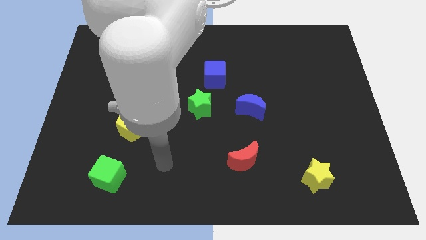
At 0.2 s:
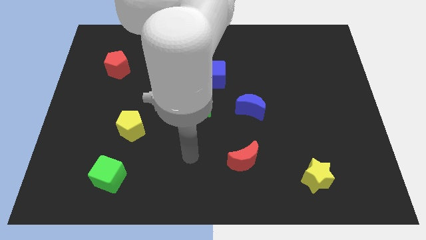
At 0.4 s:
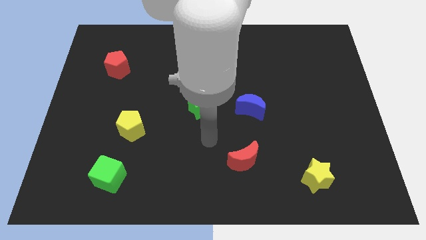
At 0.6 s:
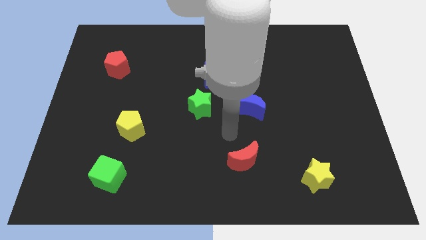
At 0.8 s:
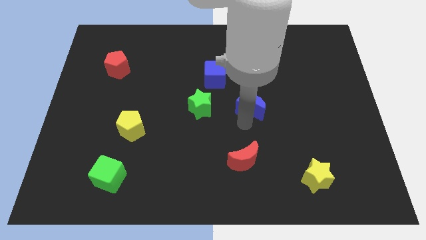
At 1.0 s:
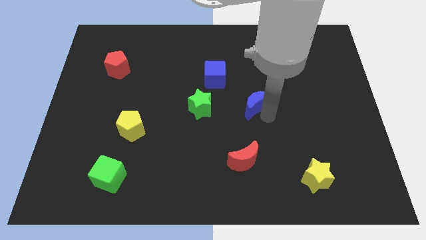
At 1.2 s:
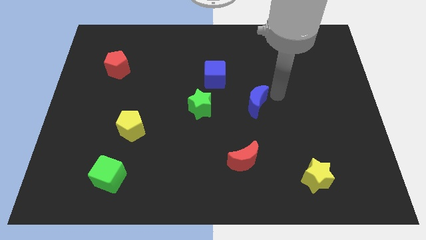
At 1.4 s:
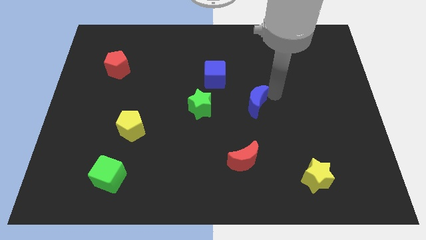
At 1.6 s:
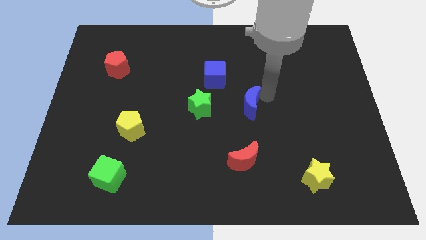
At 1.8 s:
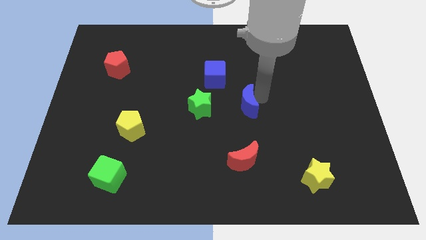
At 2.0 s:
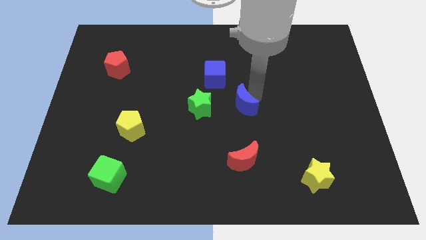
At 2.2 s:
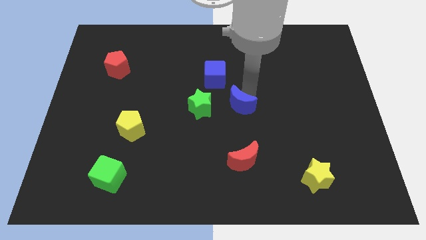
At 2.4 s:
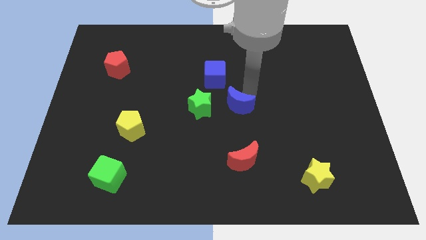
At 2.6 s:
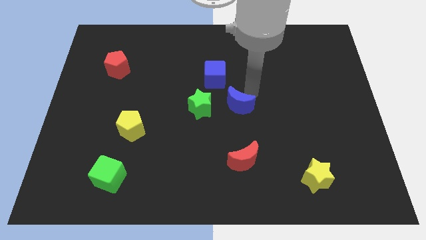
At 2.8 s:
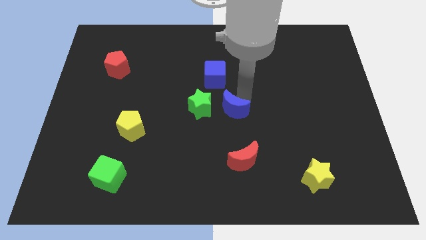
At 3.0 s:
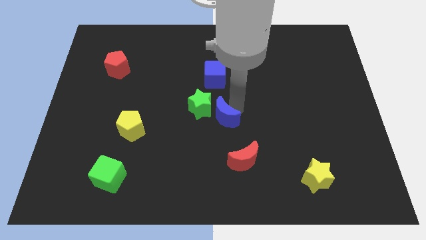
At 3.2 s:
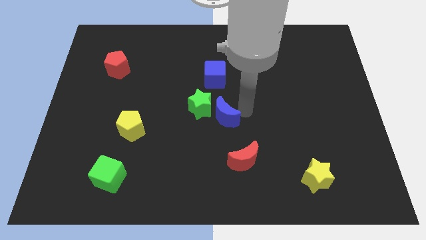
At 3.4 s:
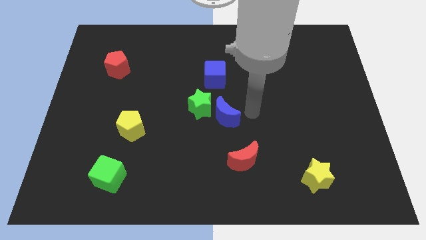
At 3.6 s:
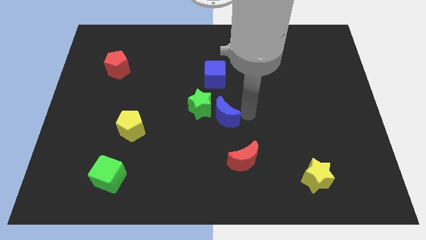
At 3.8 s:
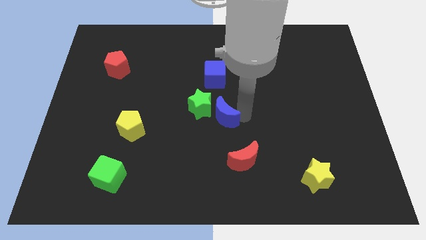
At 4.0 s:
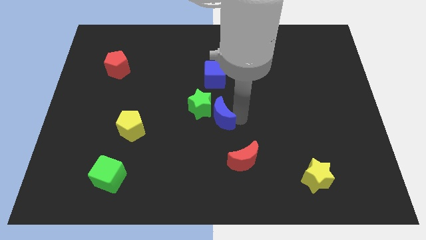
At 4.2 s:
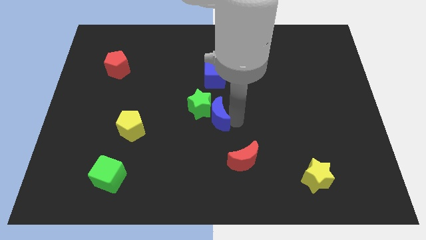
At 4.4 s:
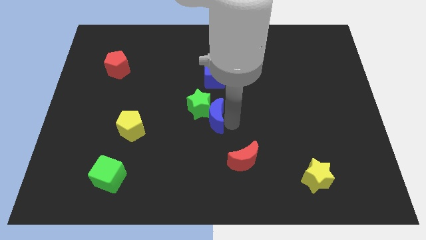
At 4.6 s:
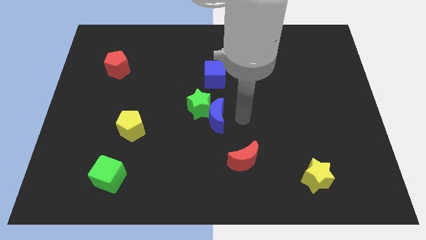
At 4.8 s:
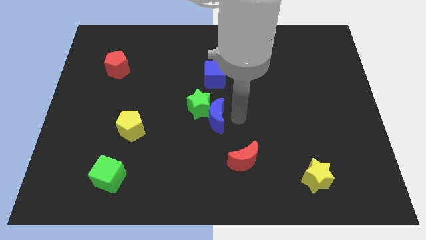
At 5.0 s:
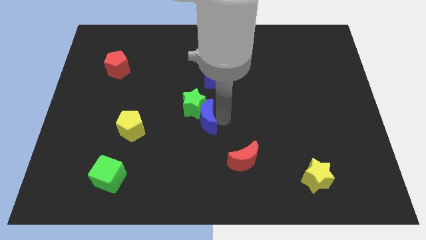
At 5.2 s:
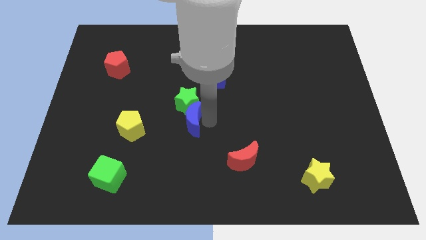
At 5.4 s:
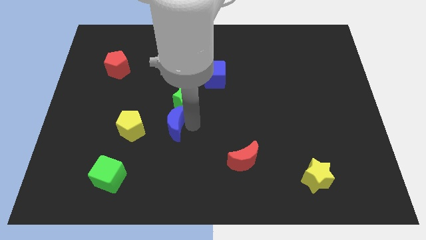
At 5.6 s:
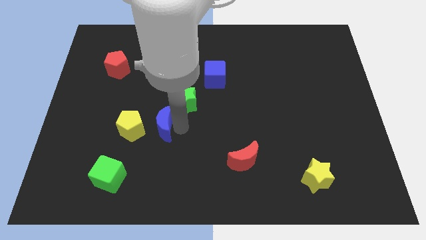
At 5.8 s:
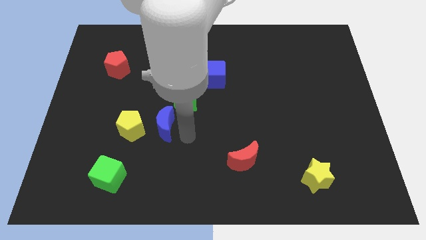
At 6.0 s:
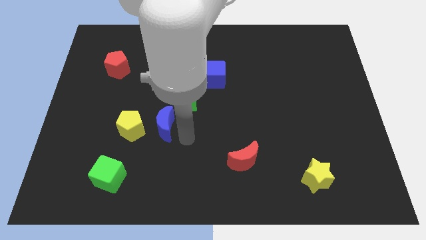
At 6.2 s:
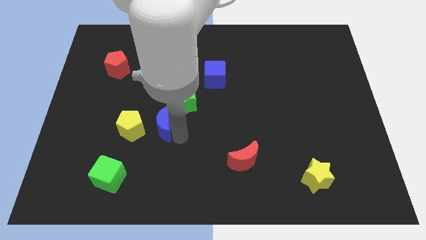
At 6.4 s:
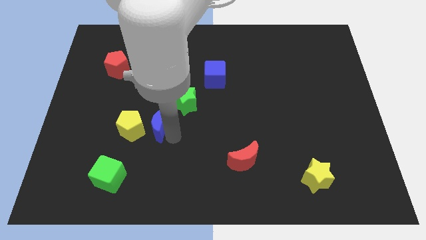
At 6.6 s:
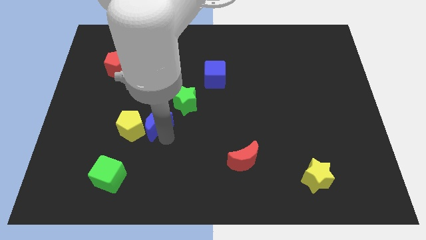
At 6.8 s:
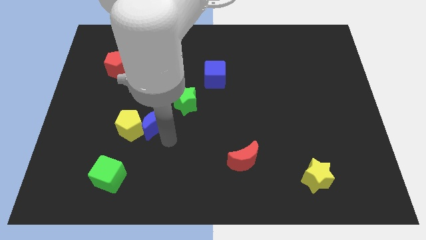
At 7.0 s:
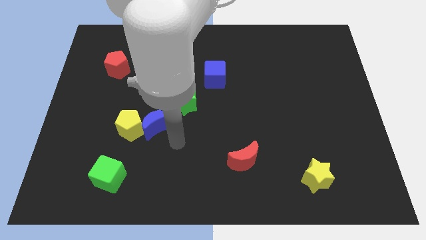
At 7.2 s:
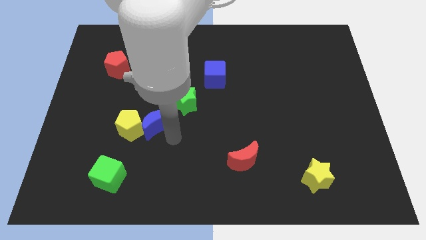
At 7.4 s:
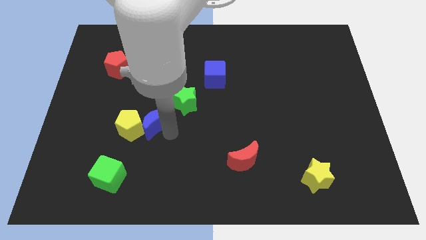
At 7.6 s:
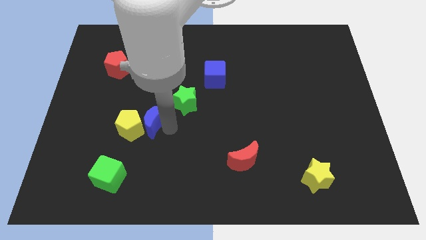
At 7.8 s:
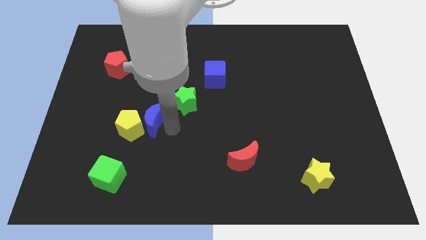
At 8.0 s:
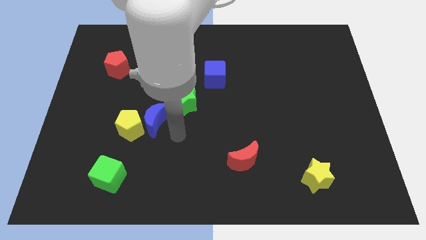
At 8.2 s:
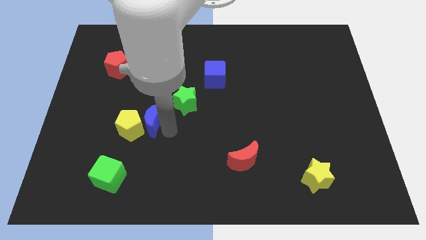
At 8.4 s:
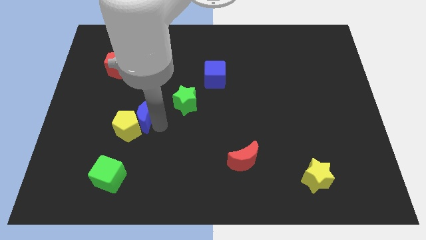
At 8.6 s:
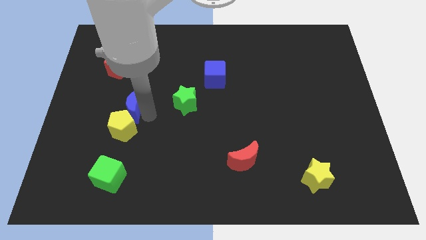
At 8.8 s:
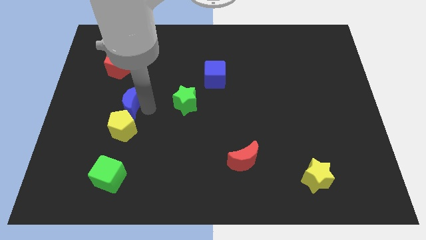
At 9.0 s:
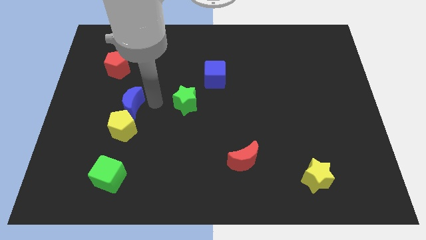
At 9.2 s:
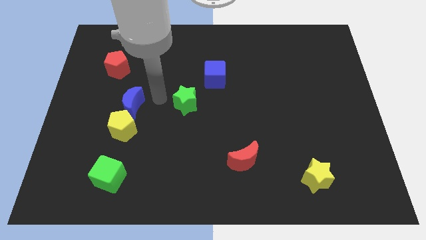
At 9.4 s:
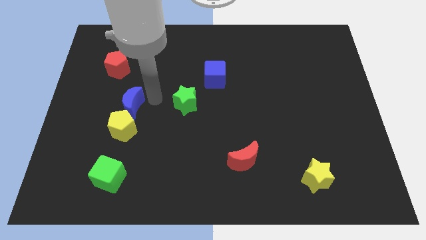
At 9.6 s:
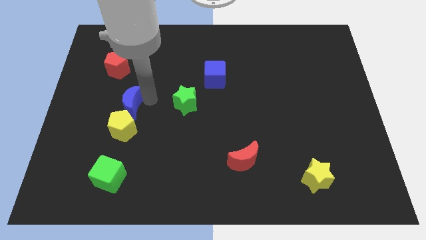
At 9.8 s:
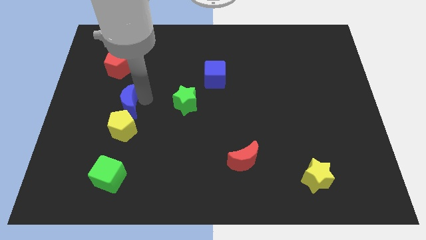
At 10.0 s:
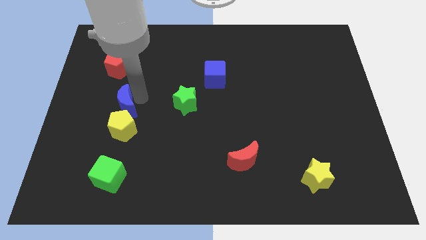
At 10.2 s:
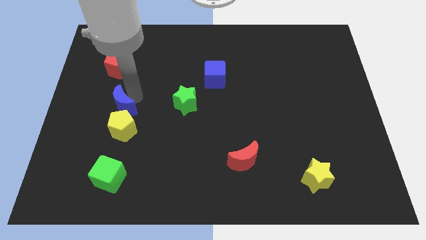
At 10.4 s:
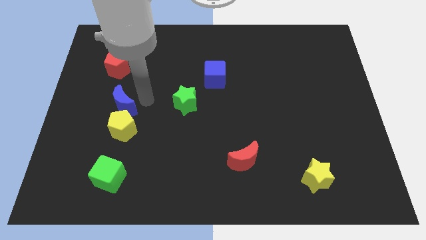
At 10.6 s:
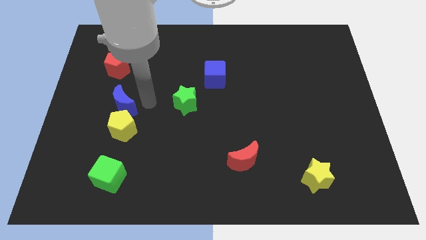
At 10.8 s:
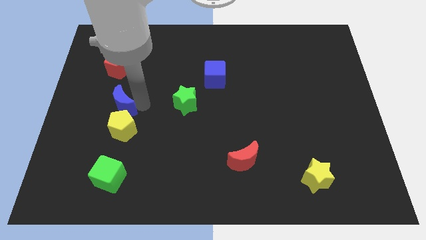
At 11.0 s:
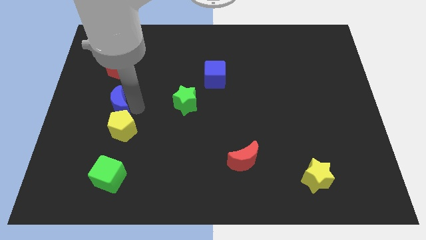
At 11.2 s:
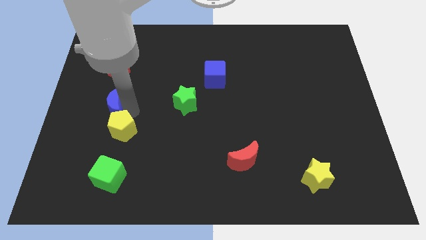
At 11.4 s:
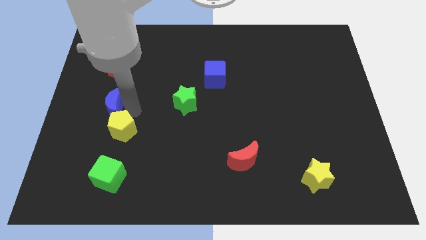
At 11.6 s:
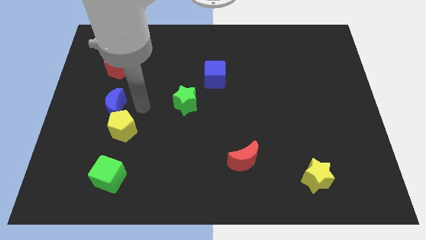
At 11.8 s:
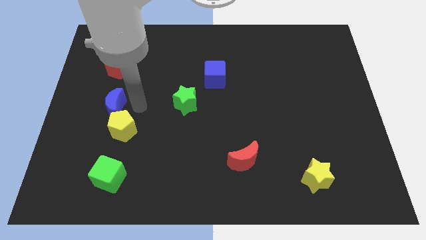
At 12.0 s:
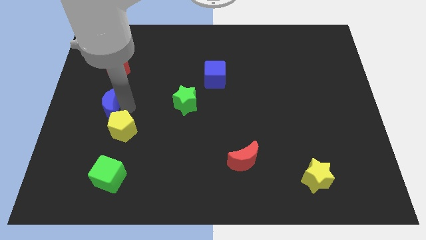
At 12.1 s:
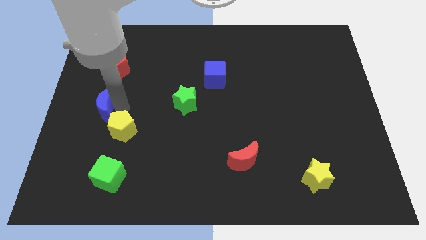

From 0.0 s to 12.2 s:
put the blue moon to the left side of the board

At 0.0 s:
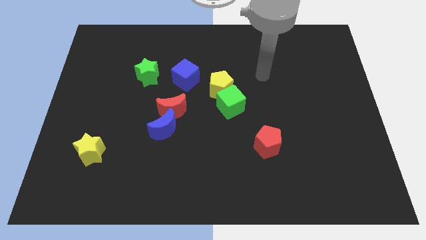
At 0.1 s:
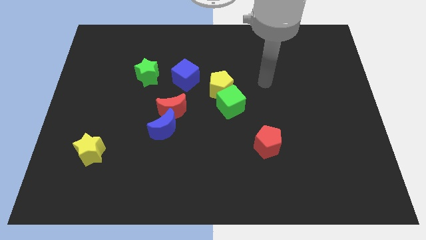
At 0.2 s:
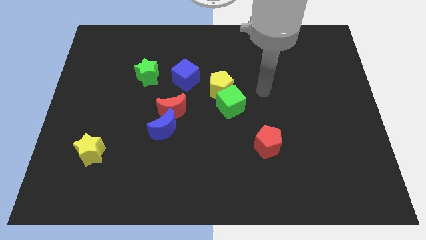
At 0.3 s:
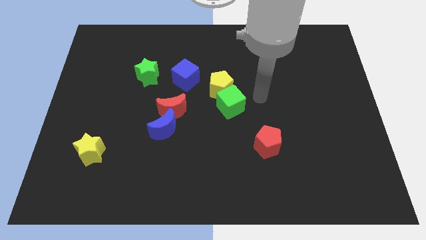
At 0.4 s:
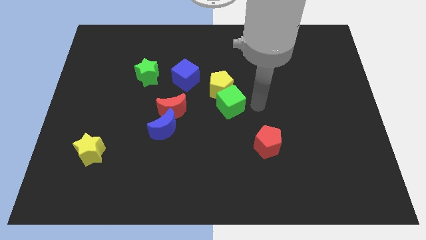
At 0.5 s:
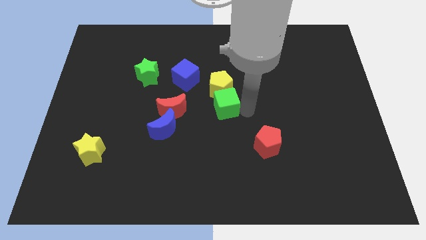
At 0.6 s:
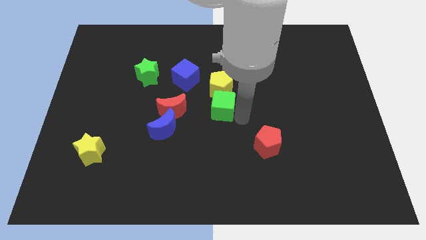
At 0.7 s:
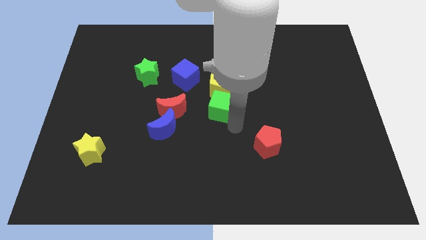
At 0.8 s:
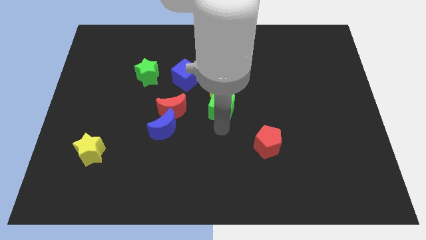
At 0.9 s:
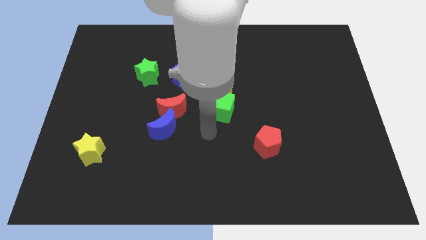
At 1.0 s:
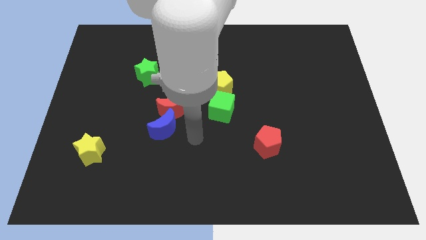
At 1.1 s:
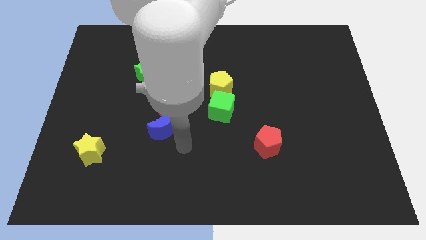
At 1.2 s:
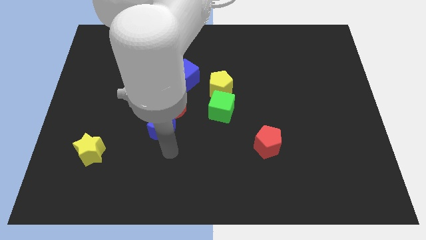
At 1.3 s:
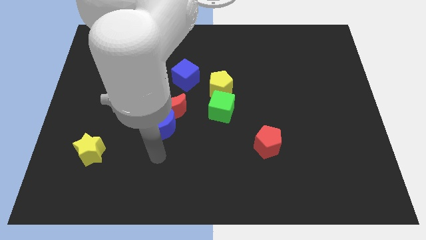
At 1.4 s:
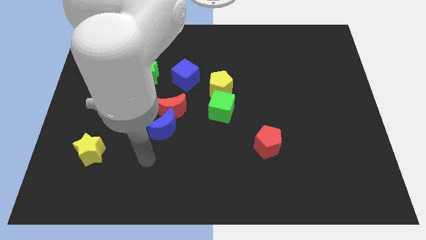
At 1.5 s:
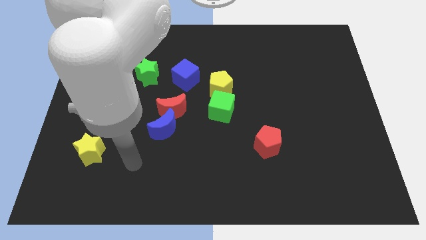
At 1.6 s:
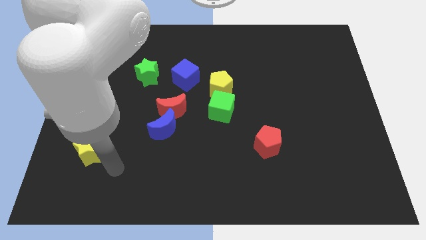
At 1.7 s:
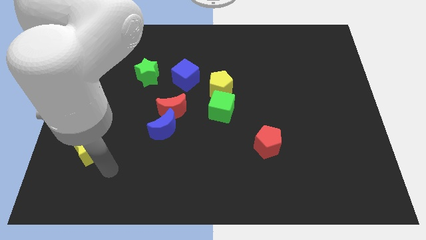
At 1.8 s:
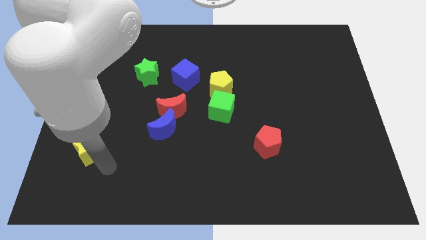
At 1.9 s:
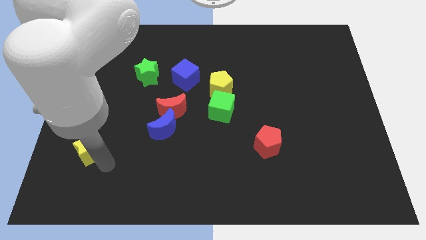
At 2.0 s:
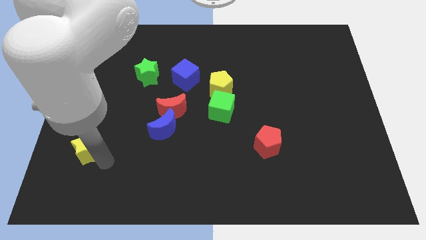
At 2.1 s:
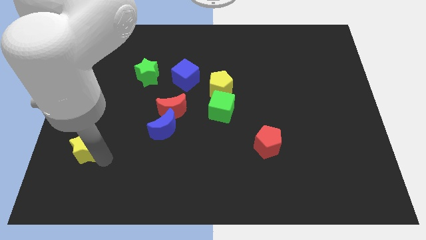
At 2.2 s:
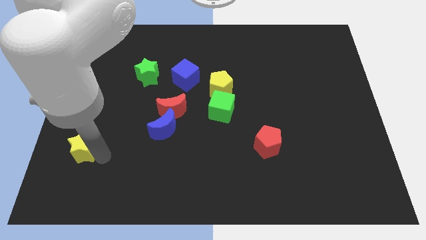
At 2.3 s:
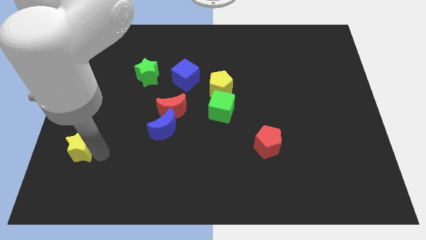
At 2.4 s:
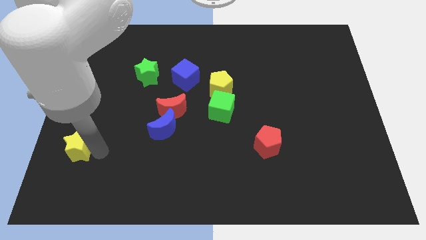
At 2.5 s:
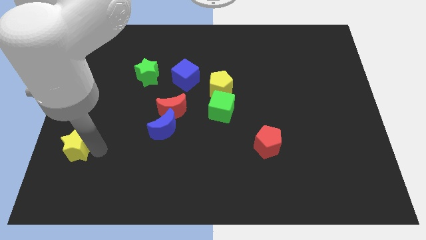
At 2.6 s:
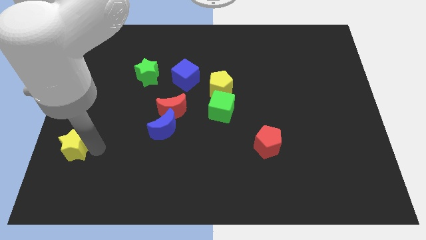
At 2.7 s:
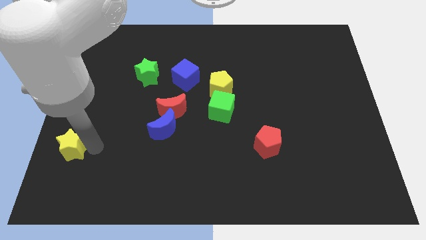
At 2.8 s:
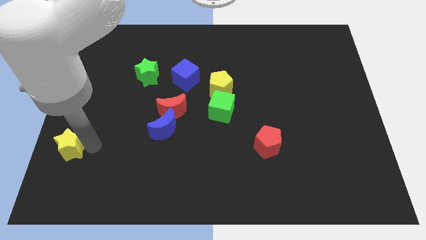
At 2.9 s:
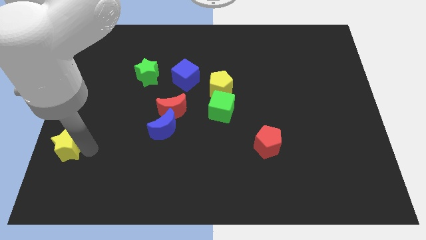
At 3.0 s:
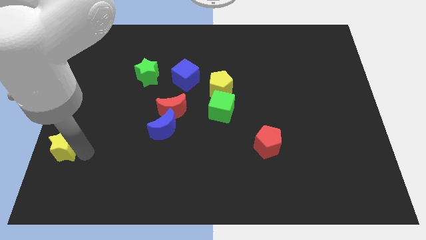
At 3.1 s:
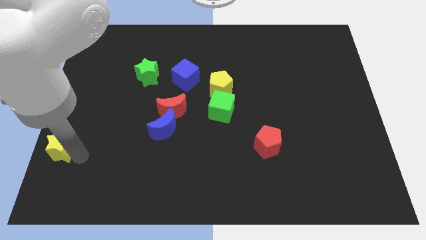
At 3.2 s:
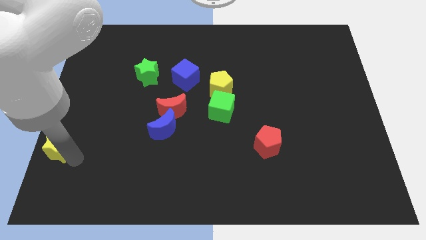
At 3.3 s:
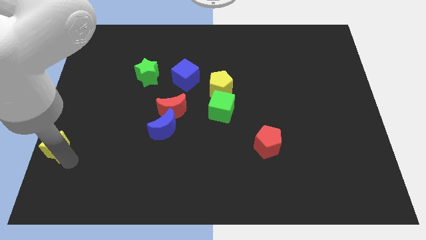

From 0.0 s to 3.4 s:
slide the yellow star to the left side
